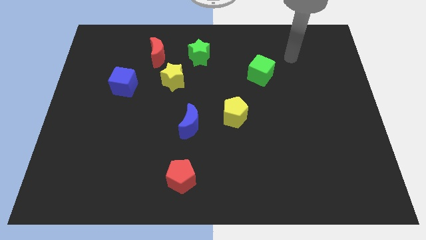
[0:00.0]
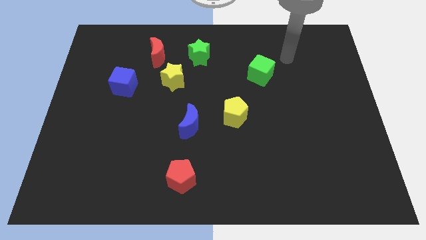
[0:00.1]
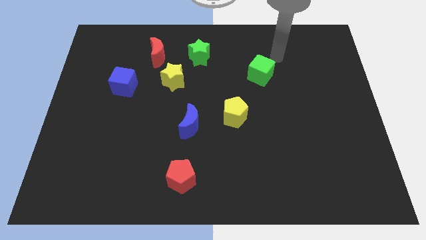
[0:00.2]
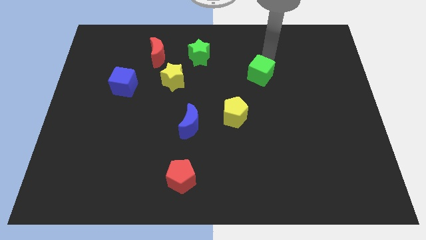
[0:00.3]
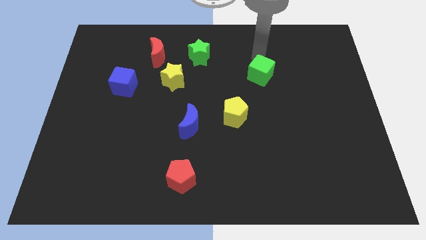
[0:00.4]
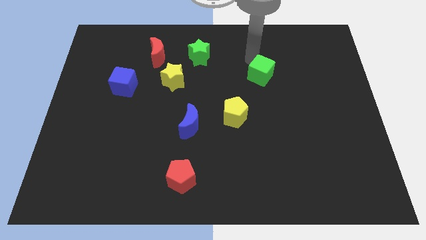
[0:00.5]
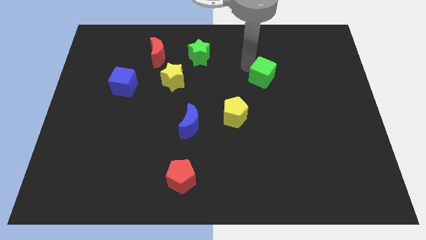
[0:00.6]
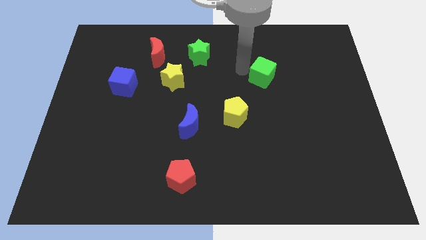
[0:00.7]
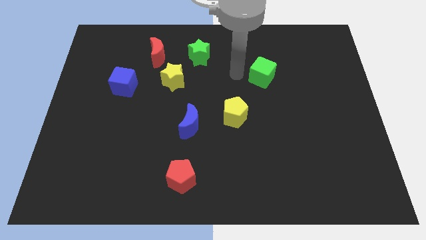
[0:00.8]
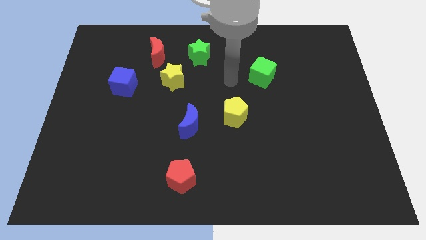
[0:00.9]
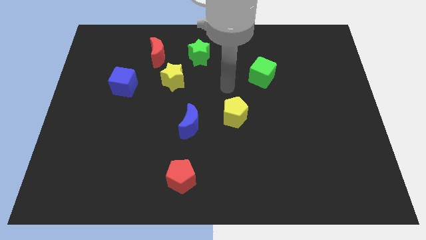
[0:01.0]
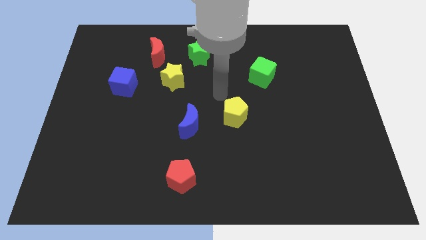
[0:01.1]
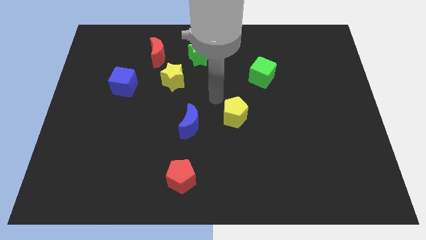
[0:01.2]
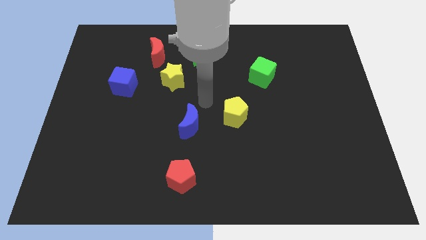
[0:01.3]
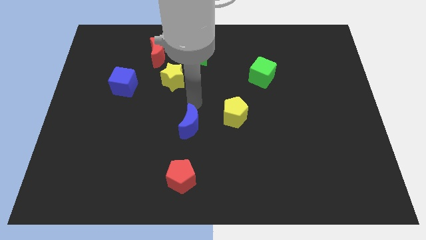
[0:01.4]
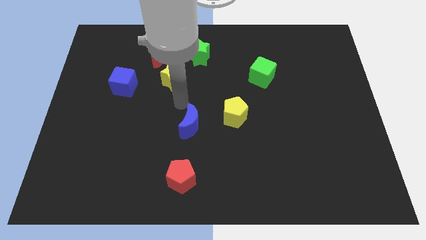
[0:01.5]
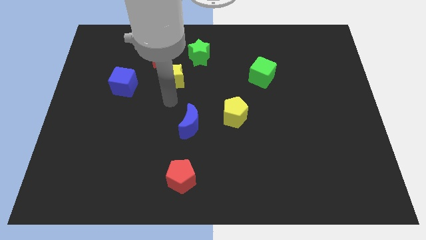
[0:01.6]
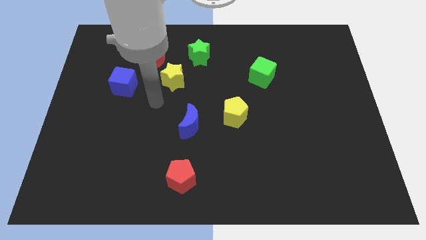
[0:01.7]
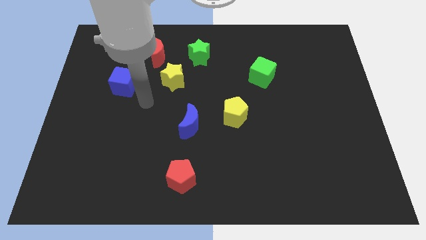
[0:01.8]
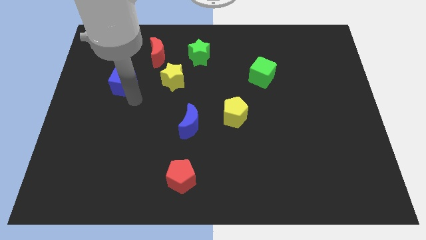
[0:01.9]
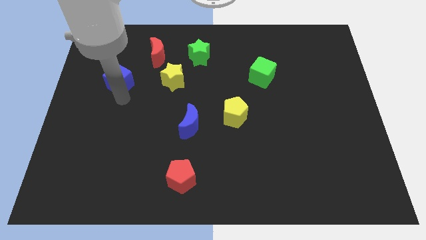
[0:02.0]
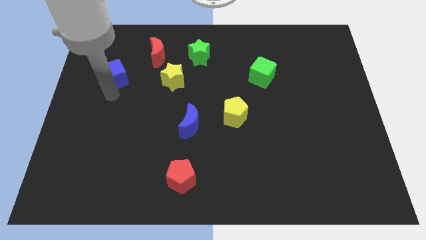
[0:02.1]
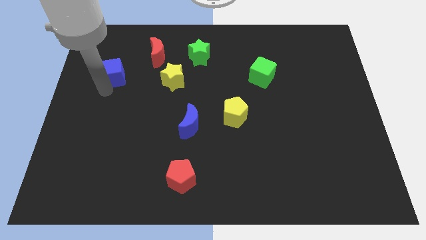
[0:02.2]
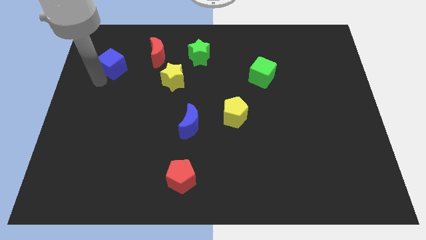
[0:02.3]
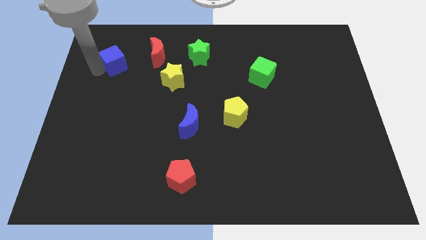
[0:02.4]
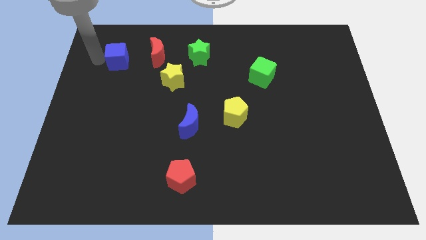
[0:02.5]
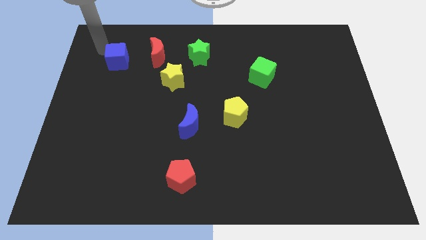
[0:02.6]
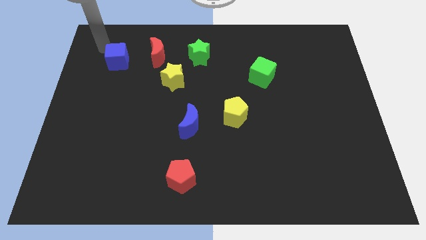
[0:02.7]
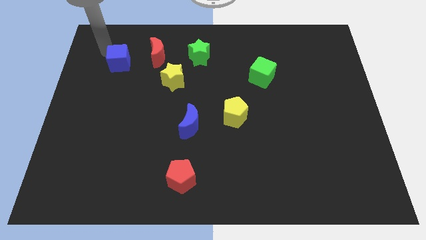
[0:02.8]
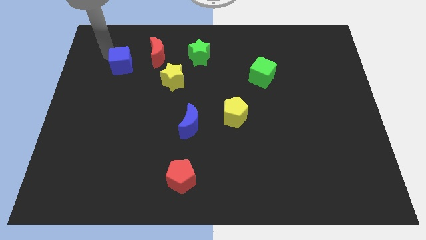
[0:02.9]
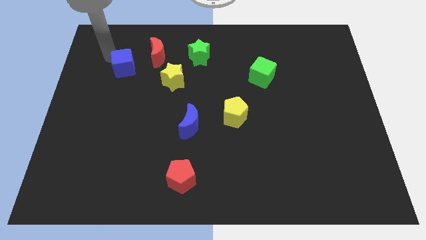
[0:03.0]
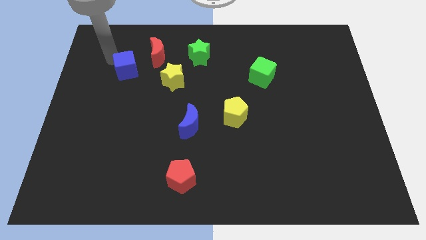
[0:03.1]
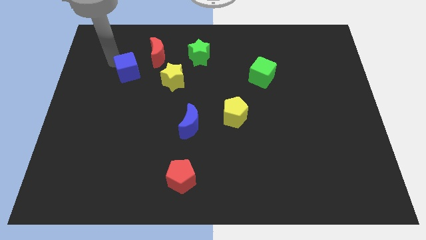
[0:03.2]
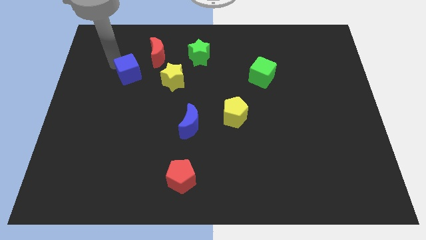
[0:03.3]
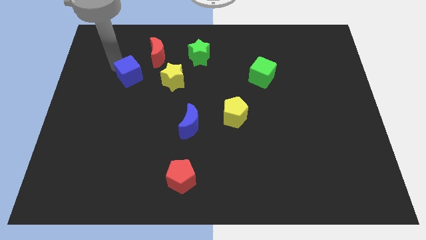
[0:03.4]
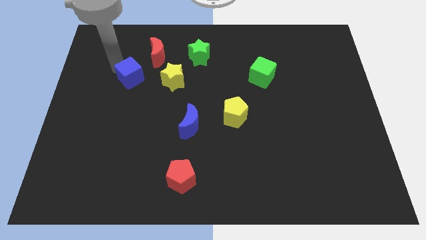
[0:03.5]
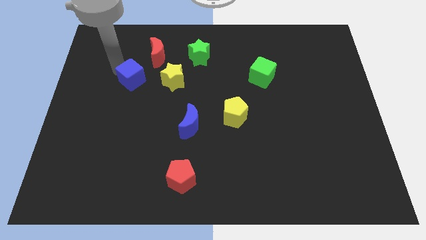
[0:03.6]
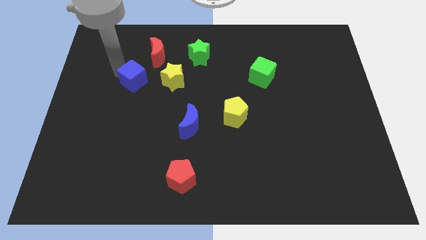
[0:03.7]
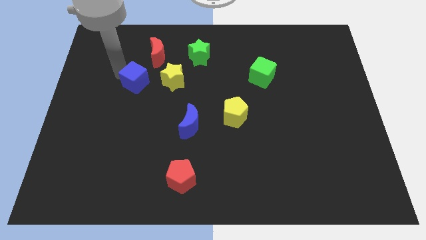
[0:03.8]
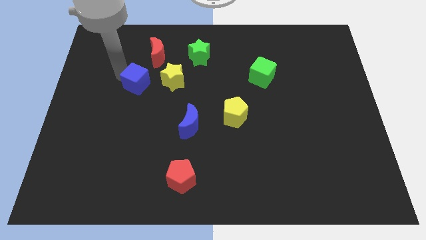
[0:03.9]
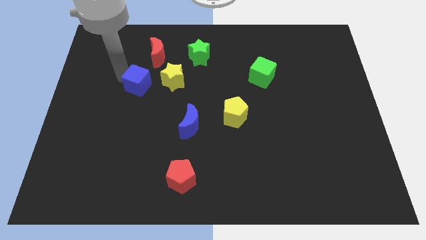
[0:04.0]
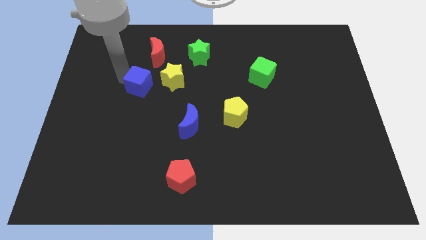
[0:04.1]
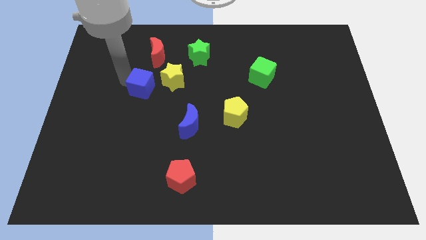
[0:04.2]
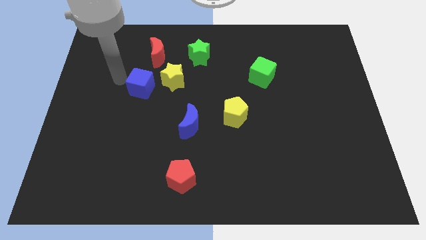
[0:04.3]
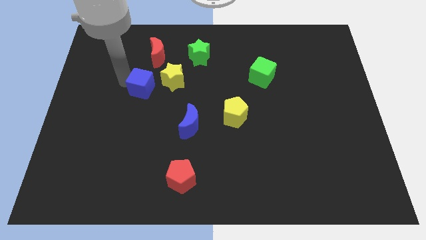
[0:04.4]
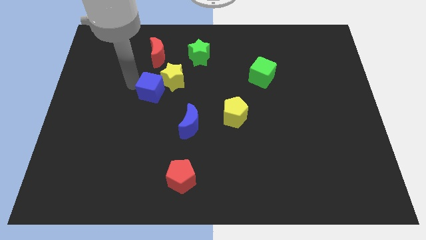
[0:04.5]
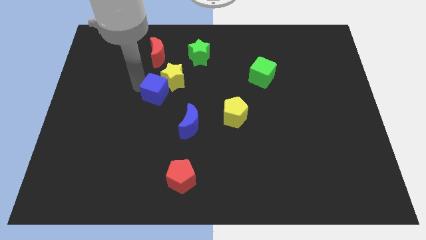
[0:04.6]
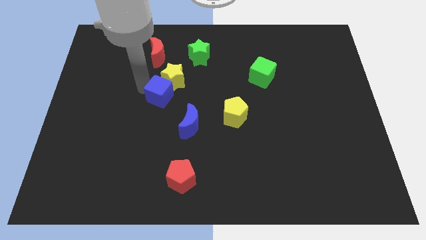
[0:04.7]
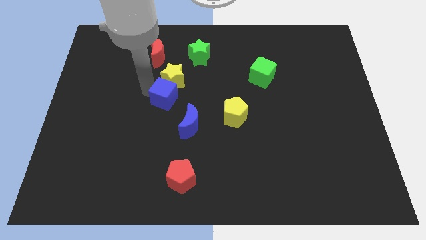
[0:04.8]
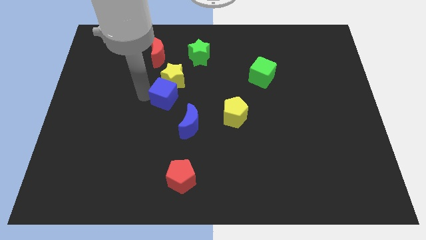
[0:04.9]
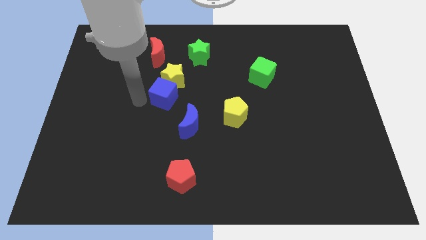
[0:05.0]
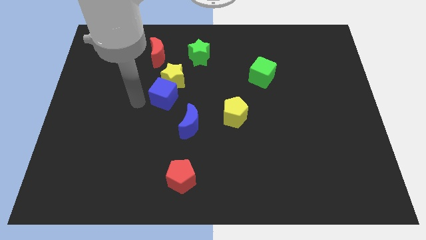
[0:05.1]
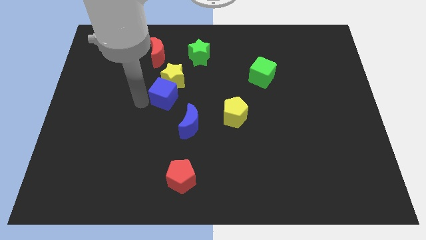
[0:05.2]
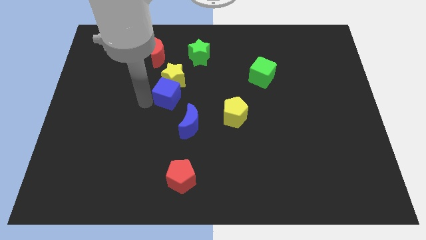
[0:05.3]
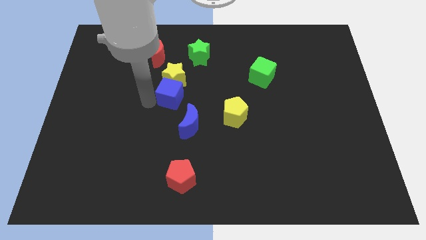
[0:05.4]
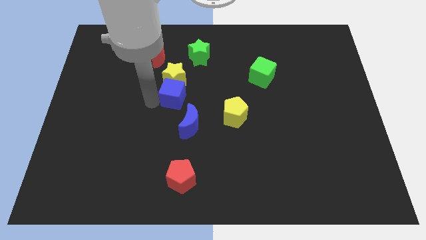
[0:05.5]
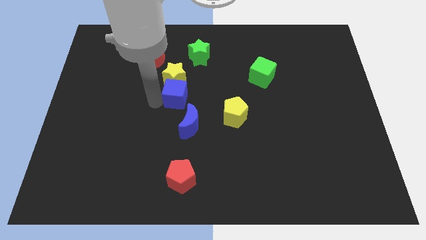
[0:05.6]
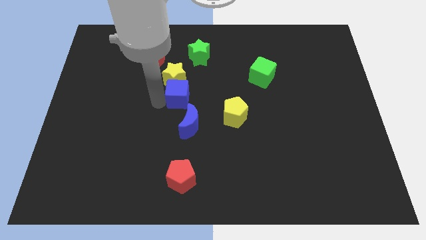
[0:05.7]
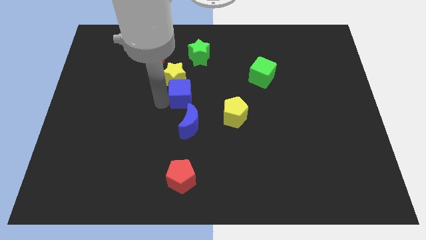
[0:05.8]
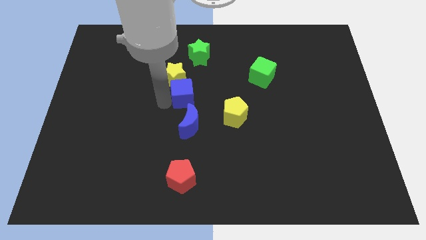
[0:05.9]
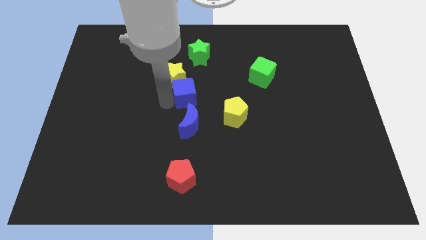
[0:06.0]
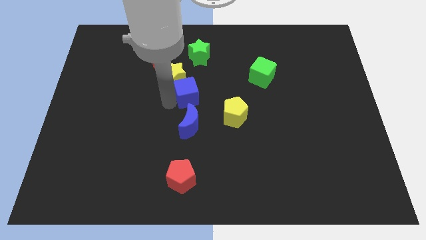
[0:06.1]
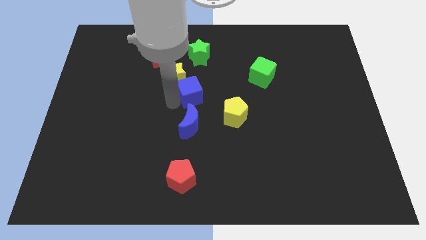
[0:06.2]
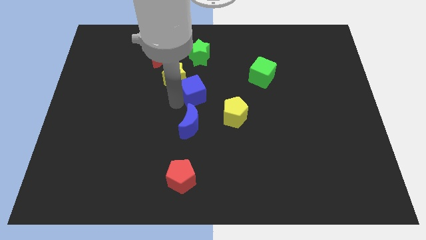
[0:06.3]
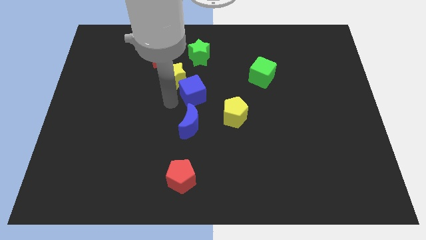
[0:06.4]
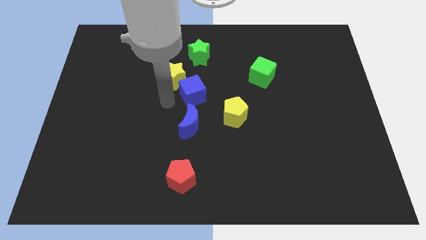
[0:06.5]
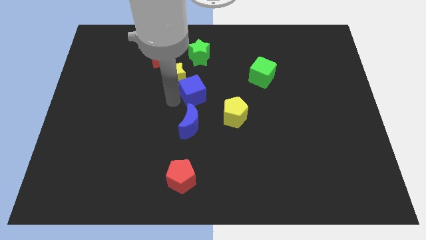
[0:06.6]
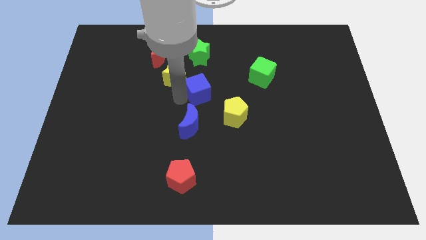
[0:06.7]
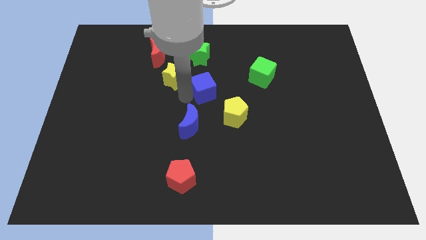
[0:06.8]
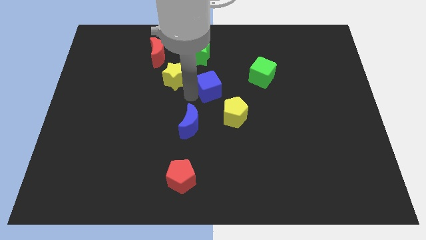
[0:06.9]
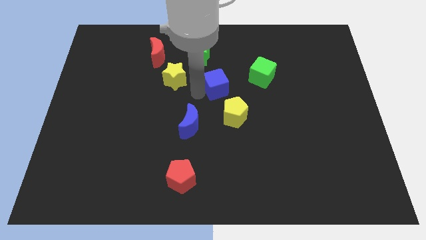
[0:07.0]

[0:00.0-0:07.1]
push the blue cube to the top side of the yellow pentagon

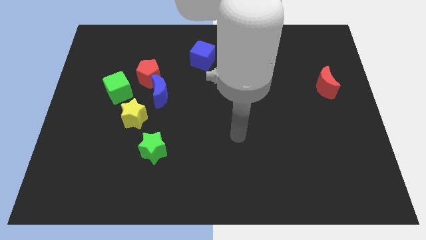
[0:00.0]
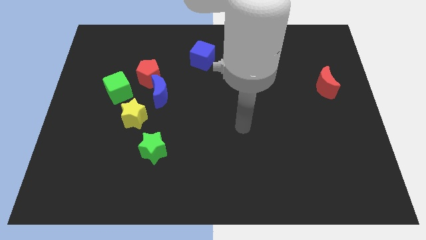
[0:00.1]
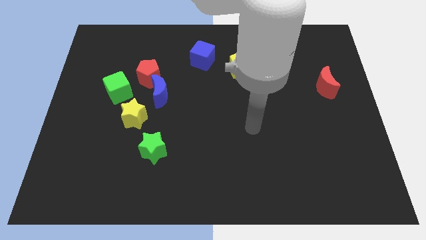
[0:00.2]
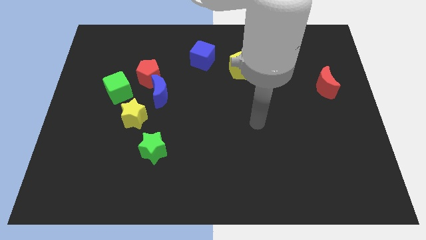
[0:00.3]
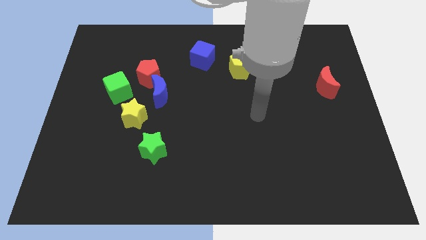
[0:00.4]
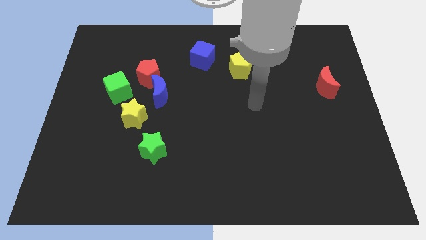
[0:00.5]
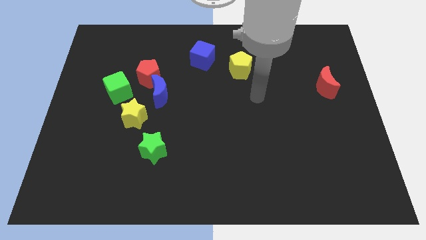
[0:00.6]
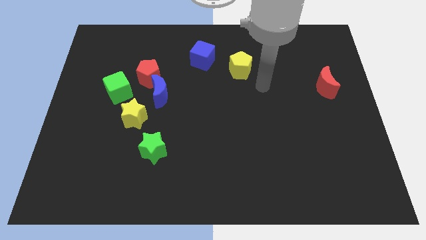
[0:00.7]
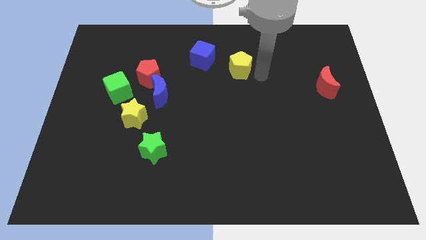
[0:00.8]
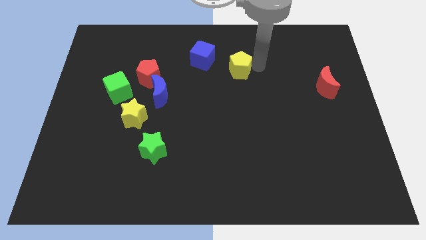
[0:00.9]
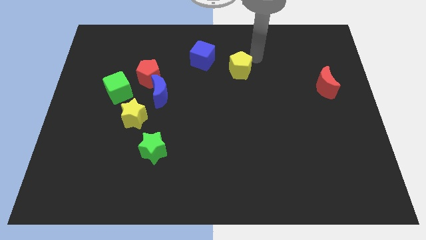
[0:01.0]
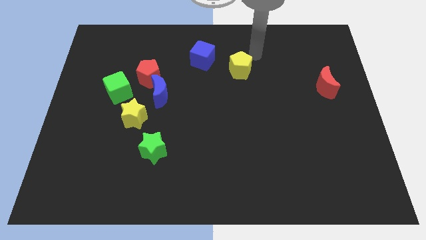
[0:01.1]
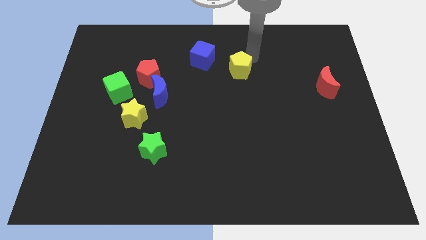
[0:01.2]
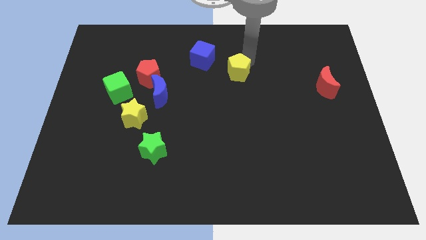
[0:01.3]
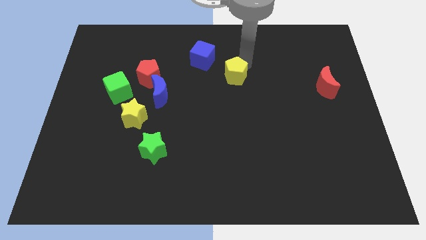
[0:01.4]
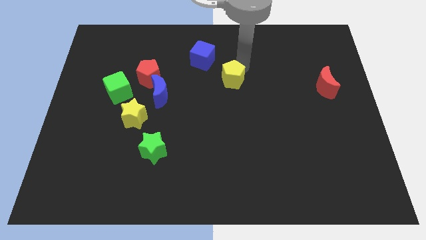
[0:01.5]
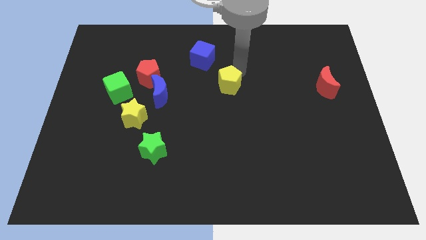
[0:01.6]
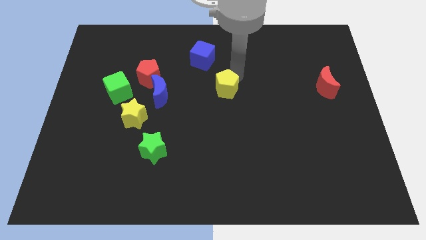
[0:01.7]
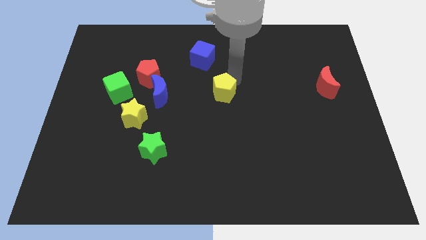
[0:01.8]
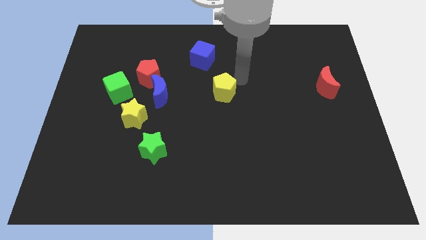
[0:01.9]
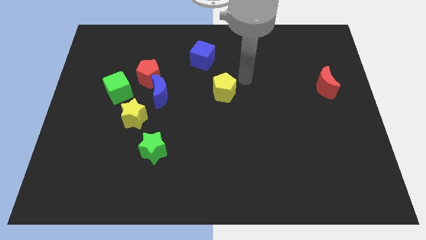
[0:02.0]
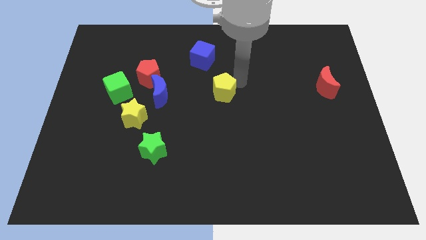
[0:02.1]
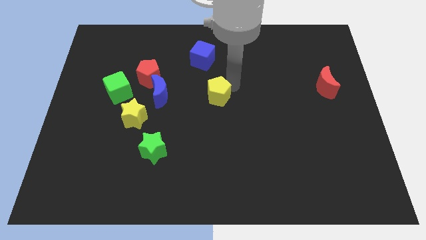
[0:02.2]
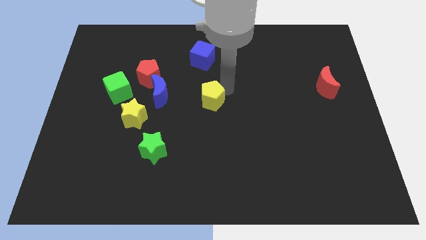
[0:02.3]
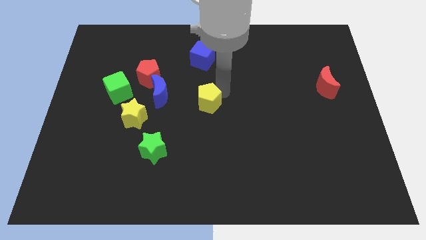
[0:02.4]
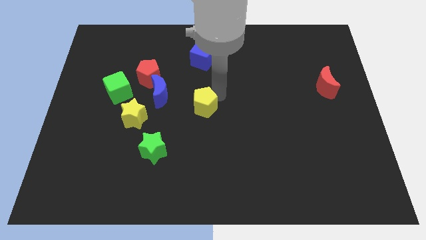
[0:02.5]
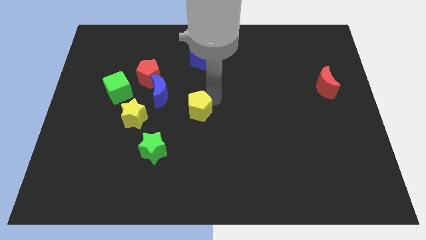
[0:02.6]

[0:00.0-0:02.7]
slide the yellow pentagon to the right of the yellow star
